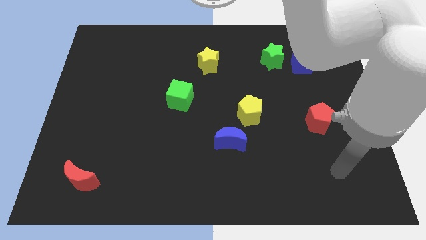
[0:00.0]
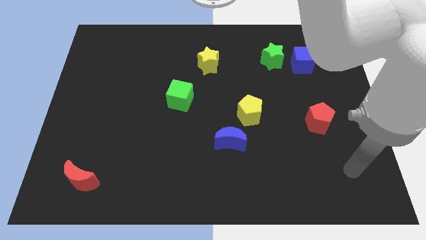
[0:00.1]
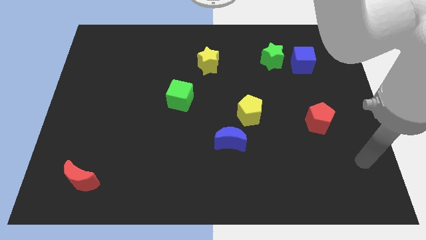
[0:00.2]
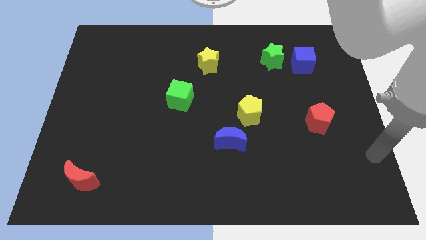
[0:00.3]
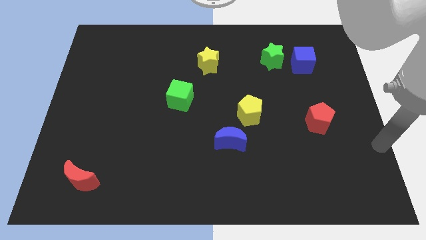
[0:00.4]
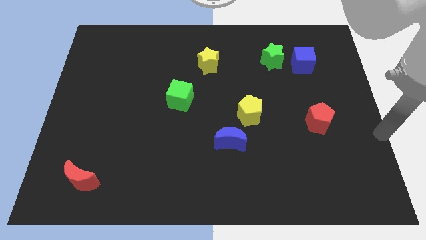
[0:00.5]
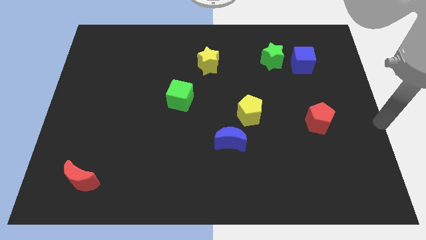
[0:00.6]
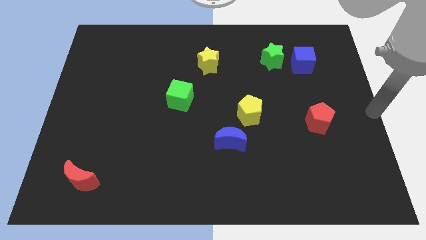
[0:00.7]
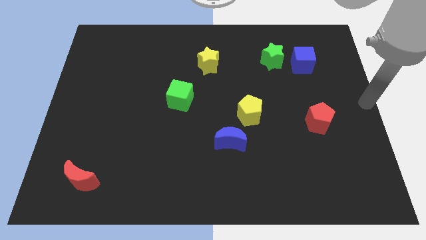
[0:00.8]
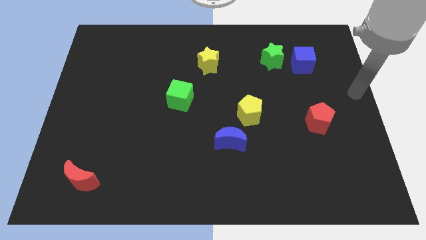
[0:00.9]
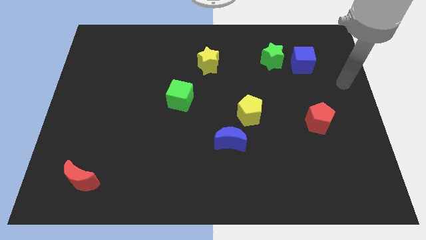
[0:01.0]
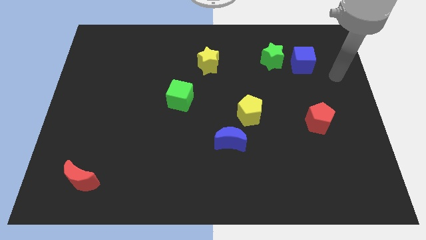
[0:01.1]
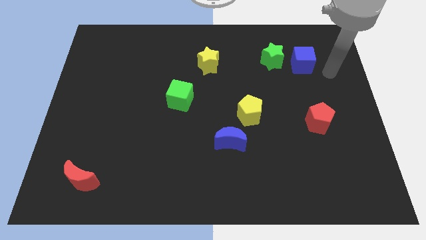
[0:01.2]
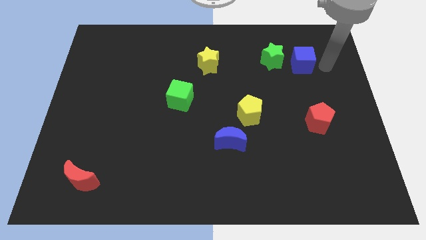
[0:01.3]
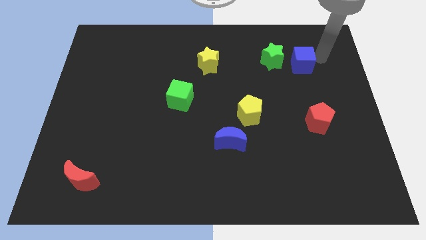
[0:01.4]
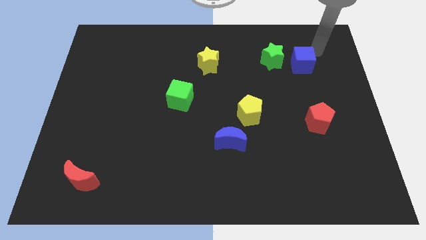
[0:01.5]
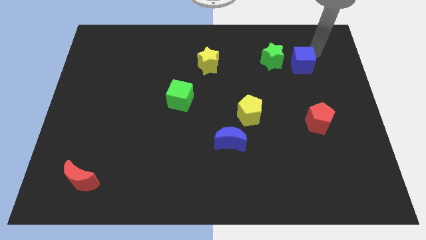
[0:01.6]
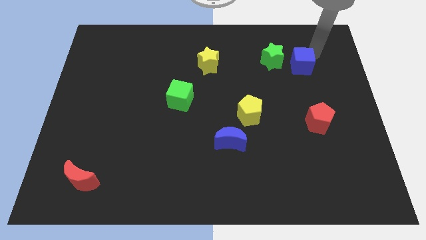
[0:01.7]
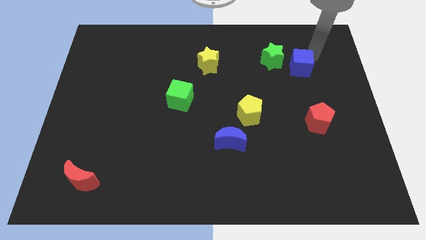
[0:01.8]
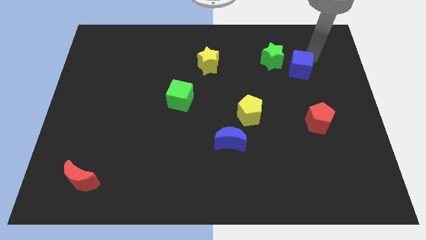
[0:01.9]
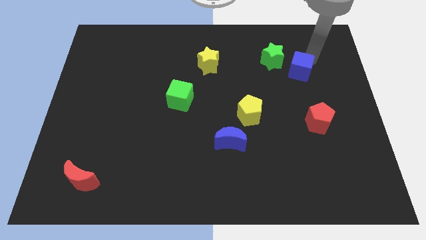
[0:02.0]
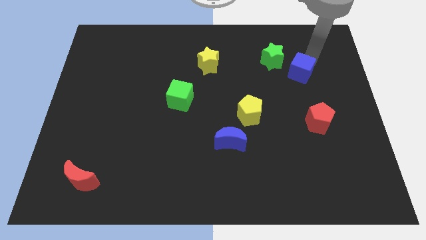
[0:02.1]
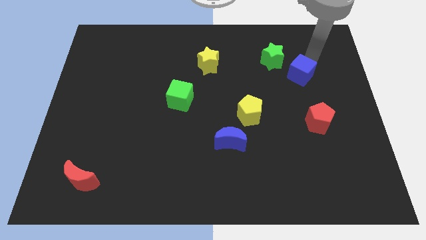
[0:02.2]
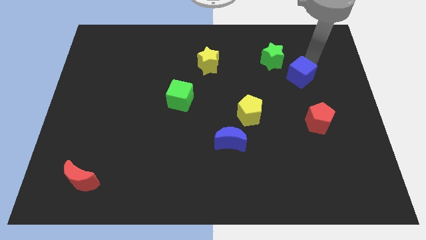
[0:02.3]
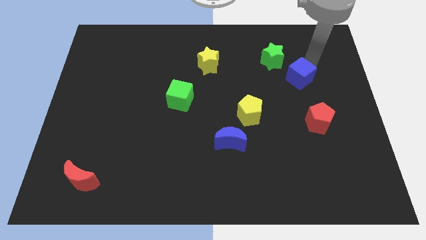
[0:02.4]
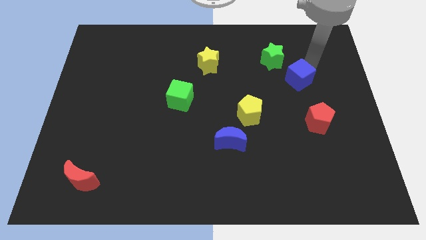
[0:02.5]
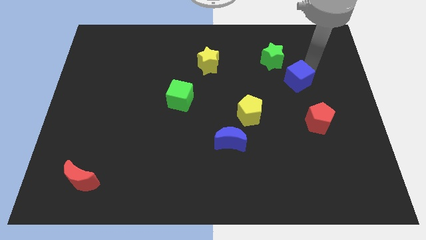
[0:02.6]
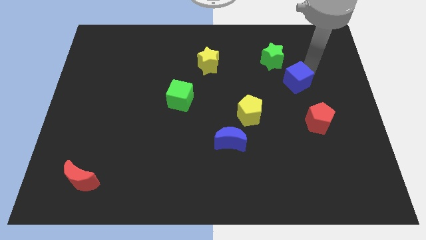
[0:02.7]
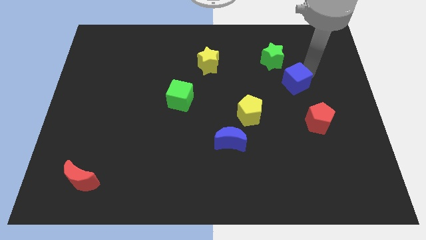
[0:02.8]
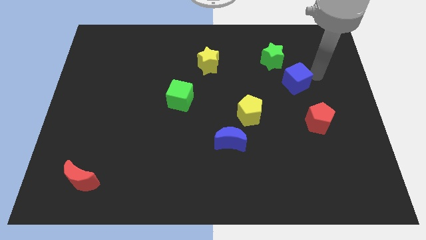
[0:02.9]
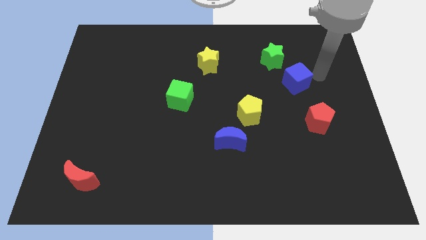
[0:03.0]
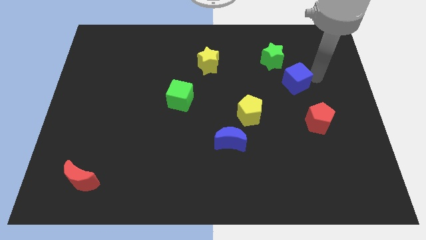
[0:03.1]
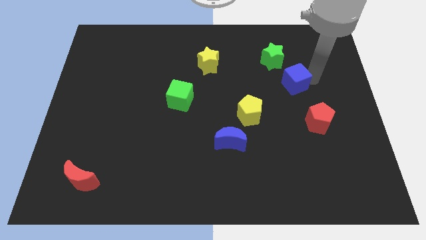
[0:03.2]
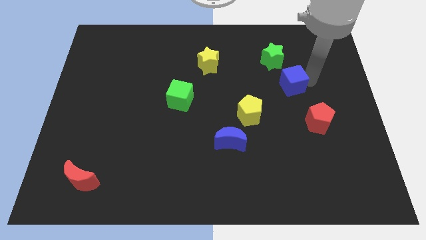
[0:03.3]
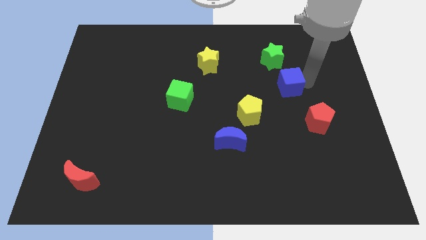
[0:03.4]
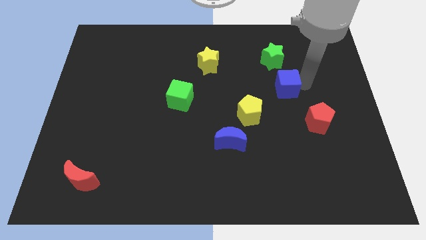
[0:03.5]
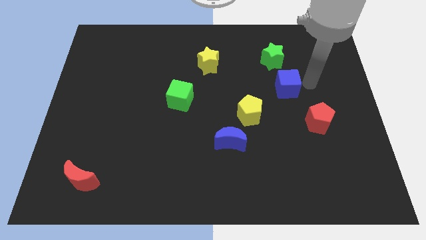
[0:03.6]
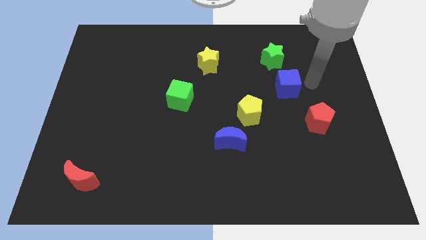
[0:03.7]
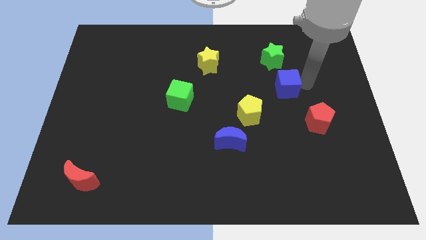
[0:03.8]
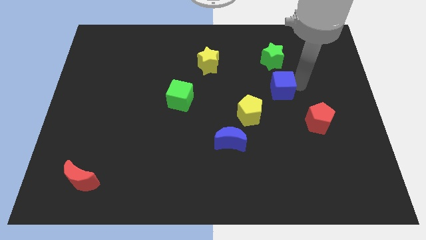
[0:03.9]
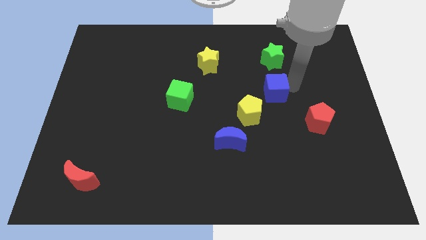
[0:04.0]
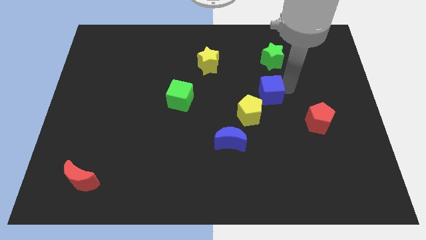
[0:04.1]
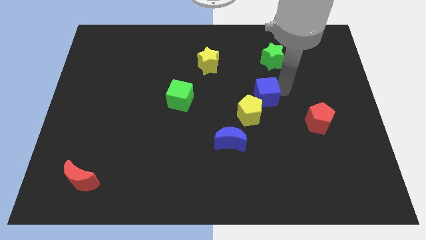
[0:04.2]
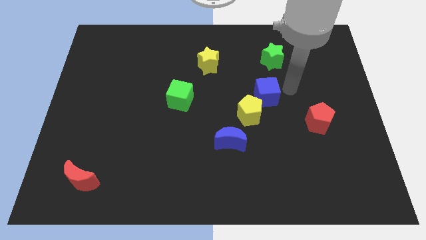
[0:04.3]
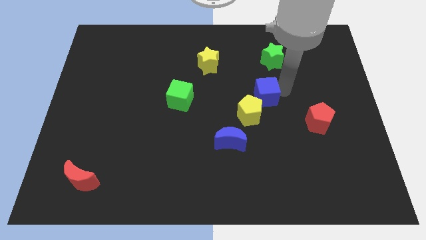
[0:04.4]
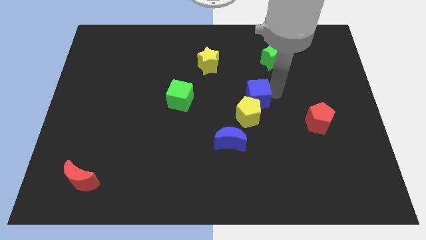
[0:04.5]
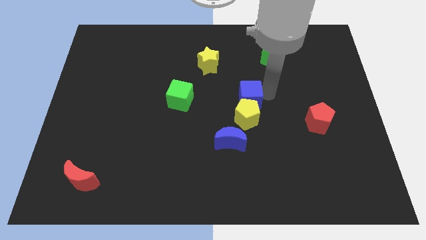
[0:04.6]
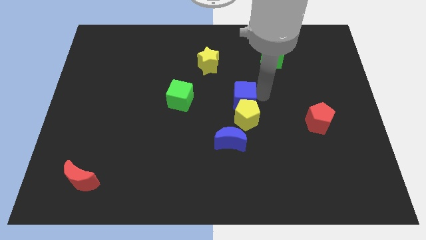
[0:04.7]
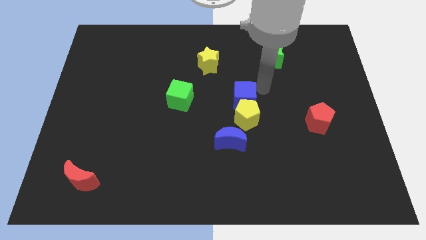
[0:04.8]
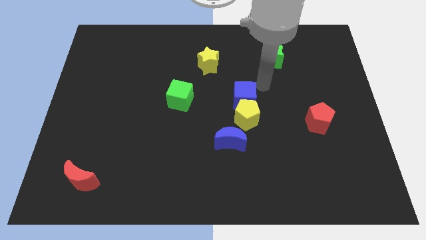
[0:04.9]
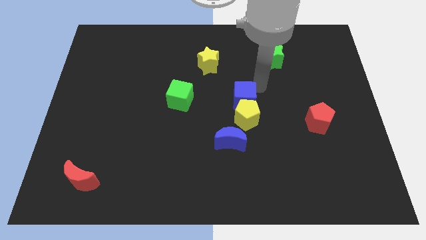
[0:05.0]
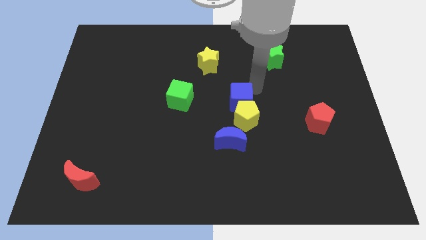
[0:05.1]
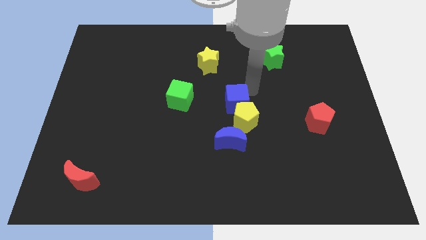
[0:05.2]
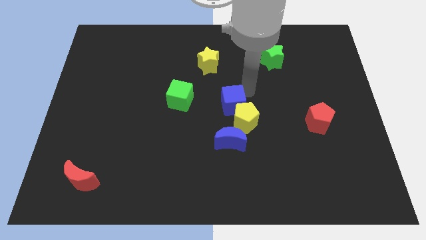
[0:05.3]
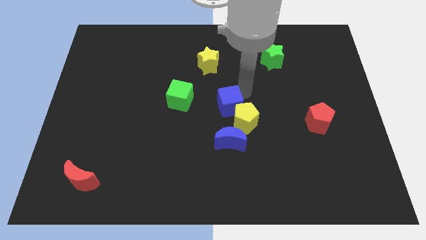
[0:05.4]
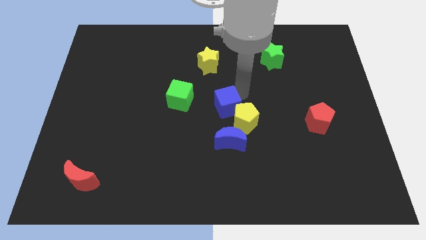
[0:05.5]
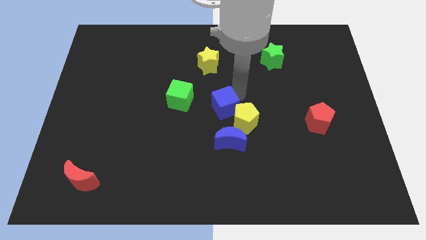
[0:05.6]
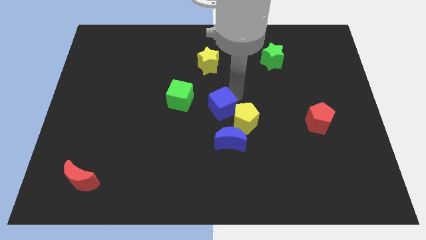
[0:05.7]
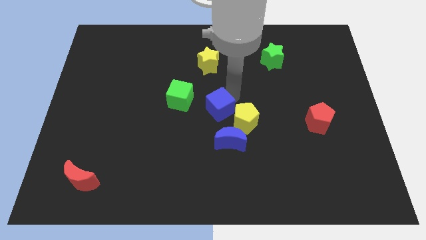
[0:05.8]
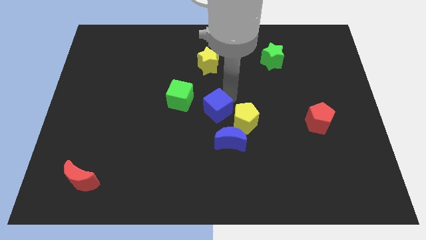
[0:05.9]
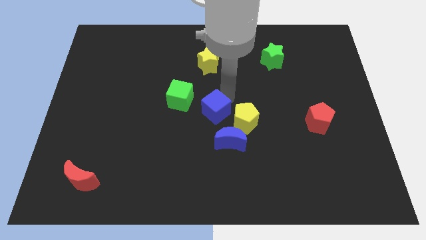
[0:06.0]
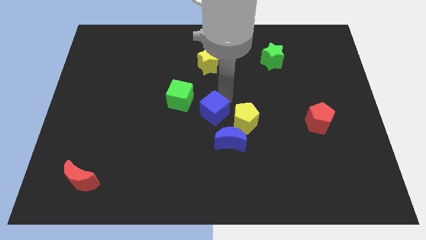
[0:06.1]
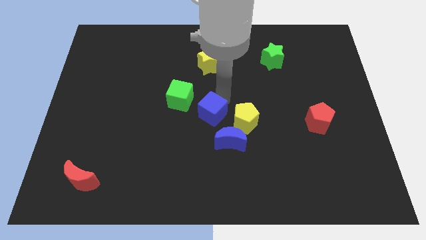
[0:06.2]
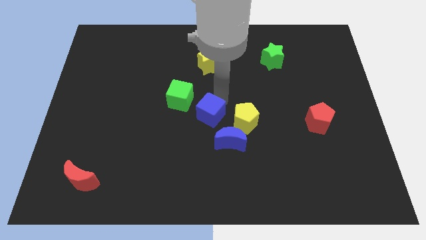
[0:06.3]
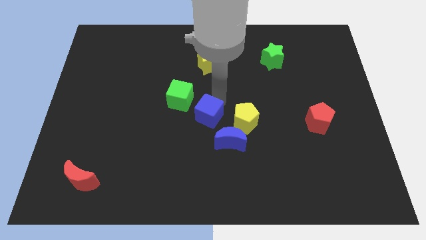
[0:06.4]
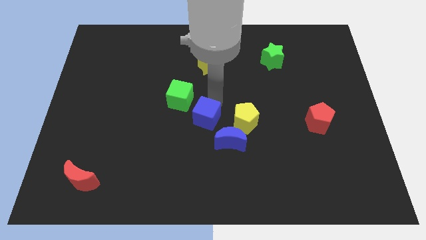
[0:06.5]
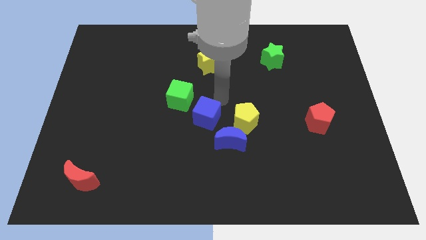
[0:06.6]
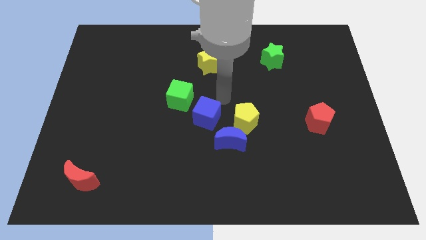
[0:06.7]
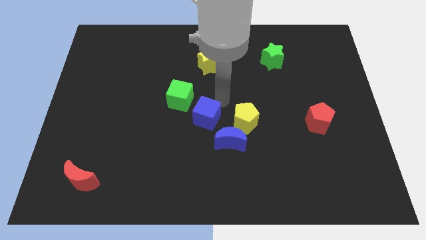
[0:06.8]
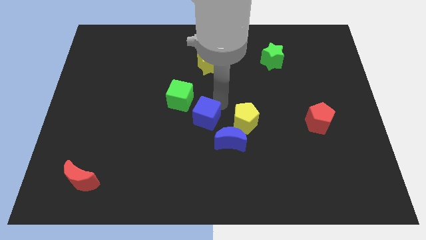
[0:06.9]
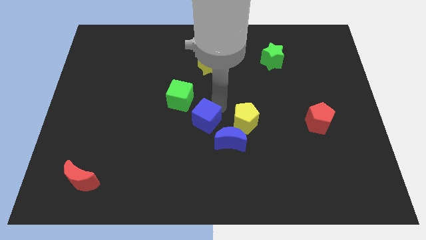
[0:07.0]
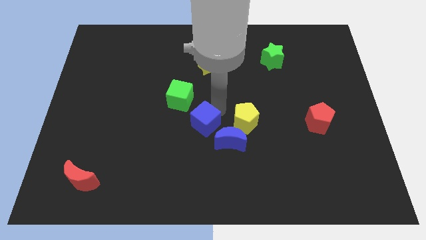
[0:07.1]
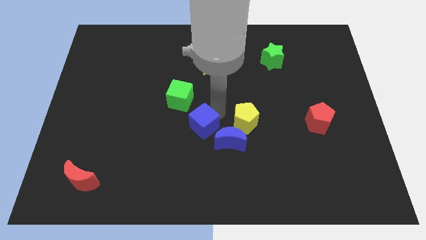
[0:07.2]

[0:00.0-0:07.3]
move the blue cube just left of the blue moon
